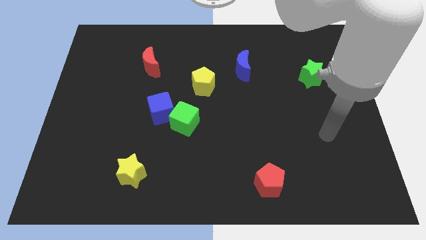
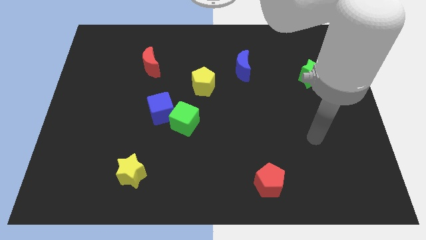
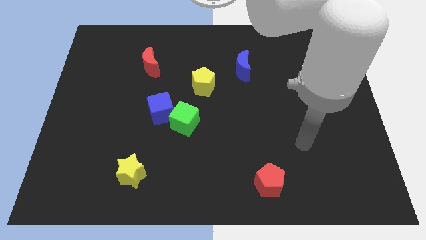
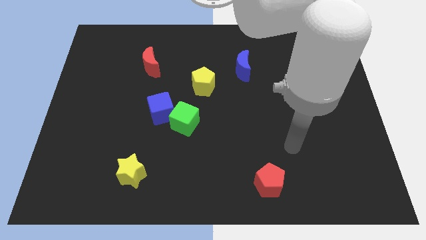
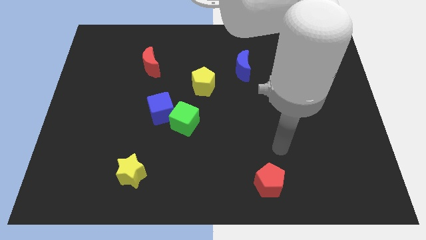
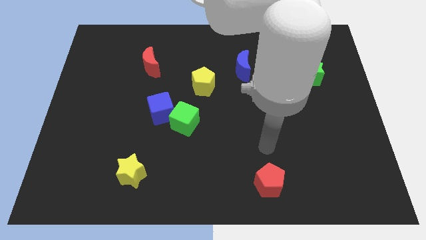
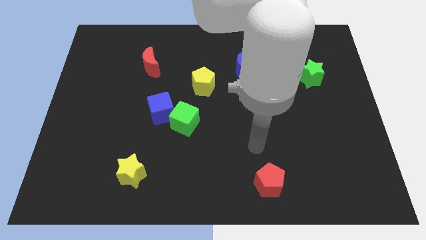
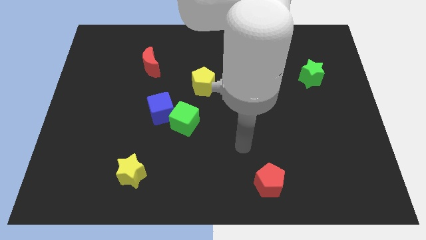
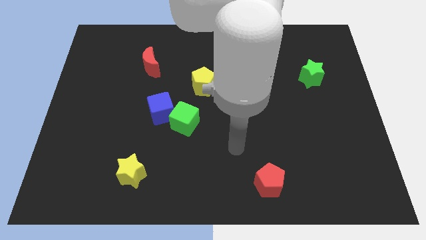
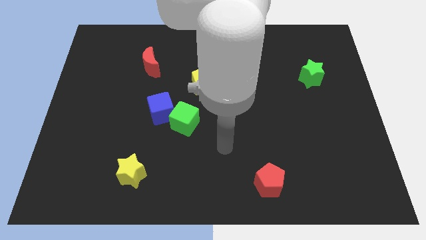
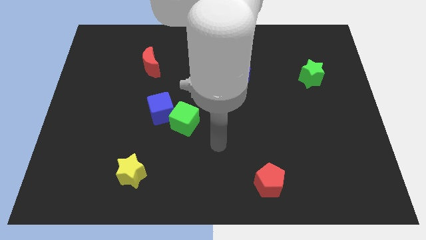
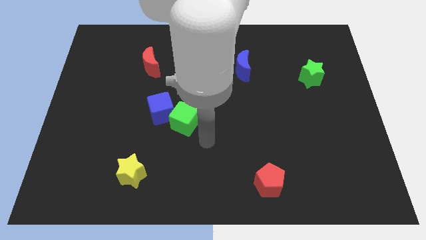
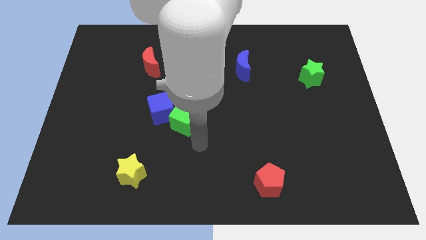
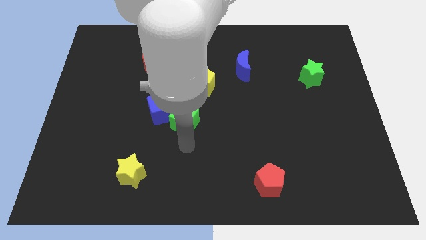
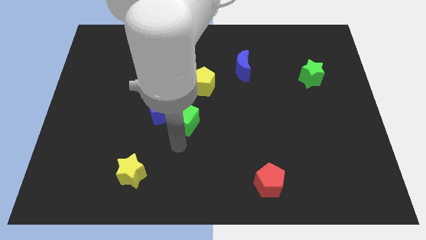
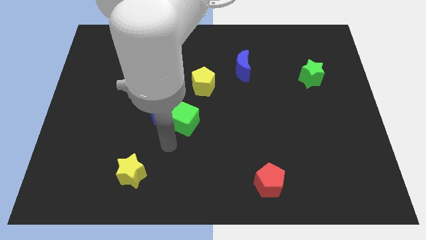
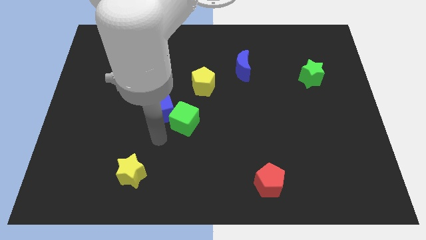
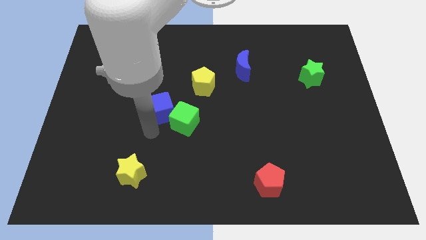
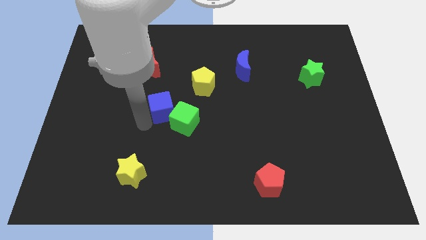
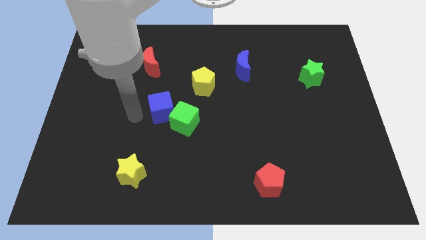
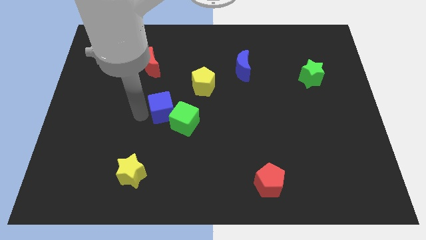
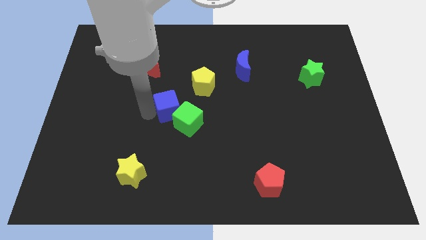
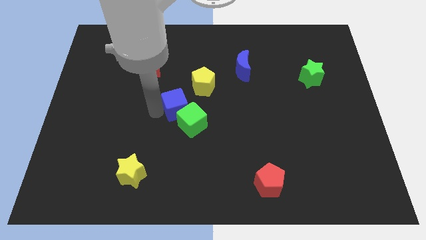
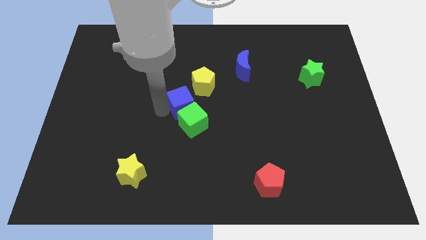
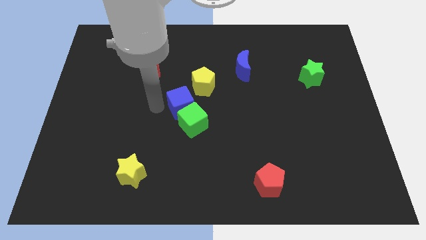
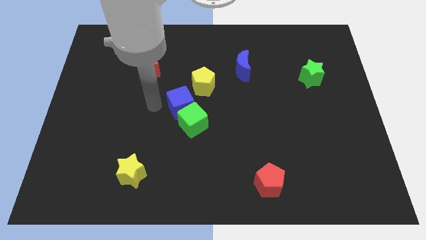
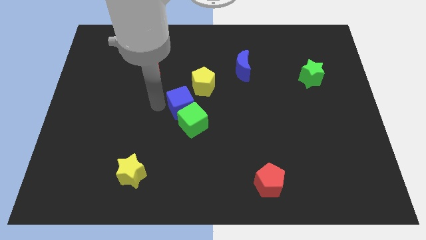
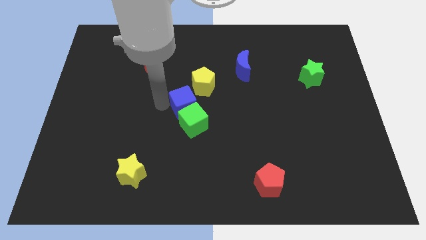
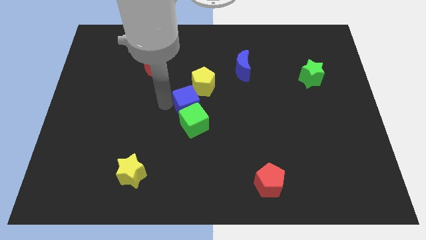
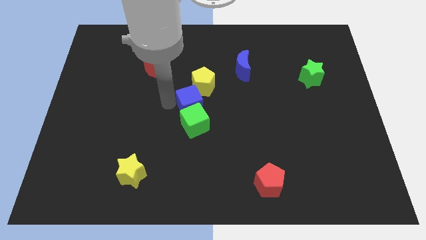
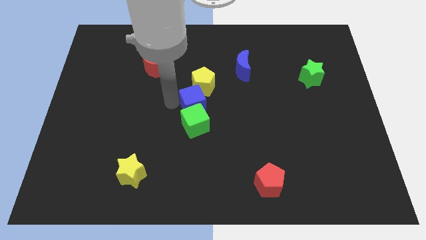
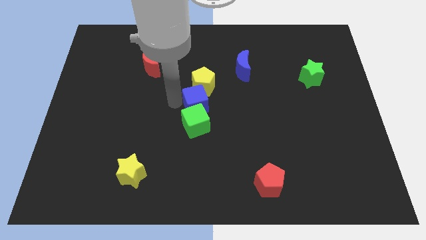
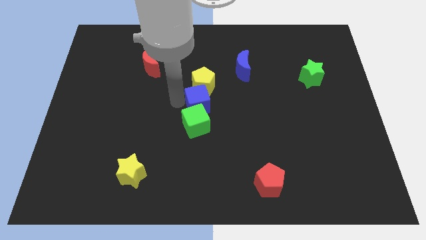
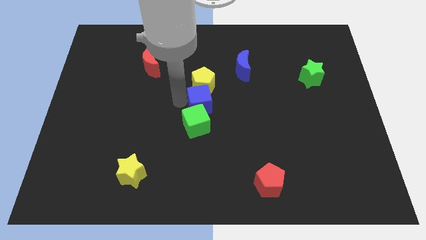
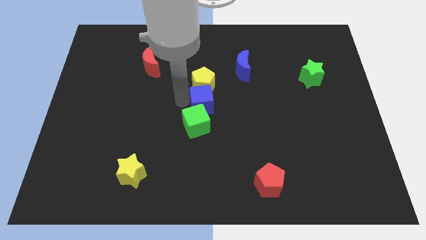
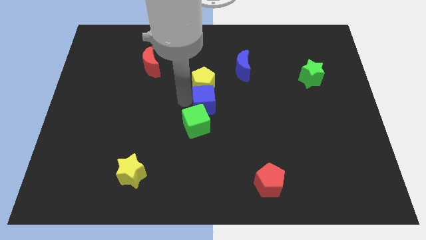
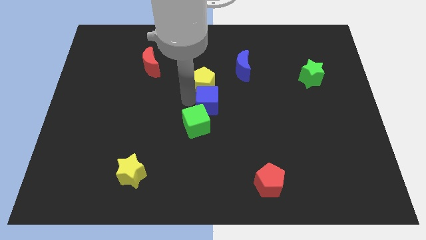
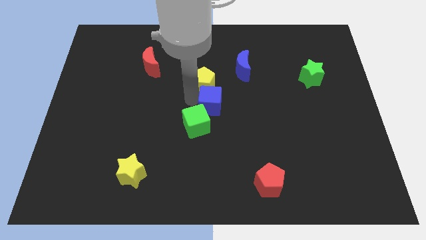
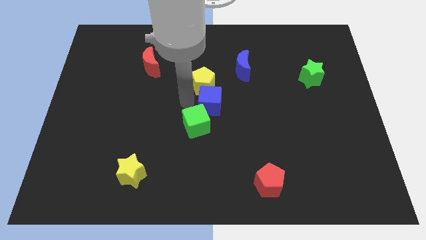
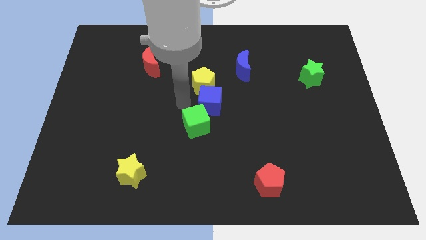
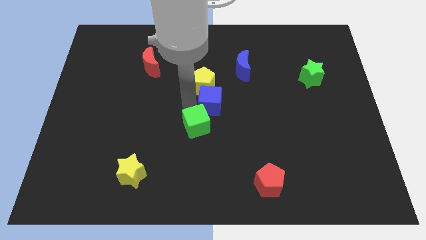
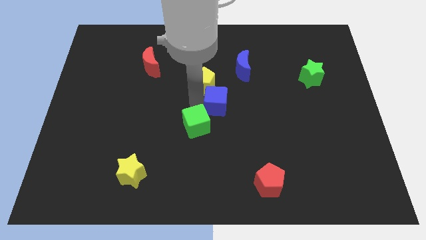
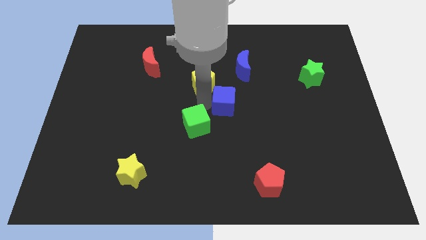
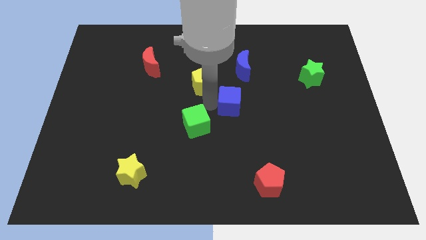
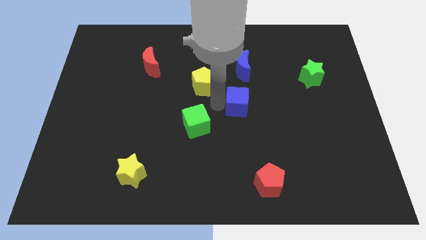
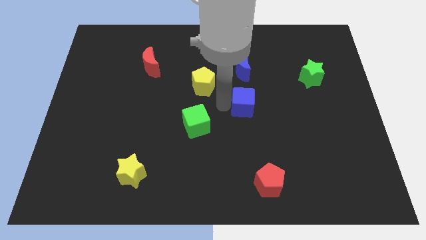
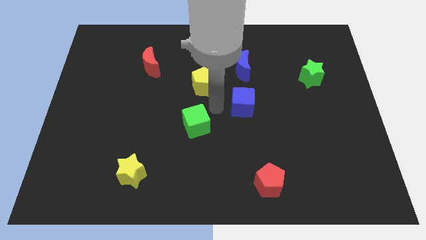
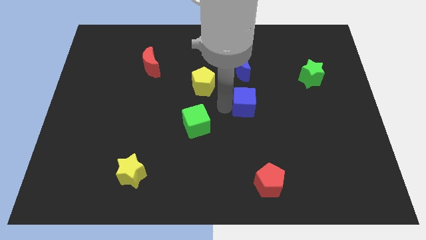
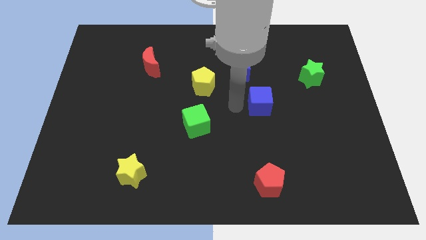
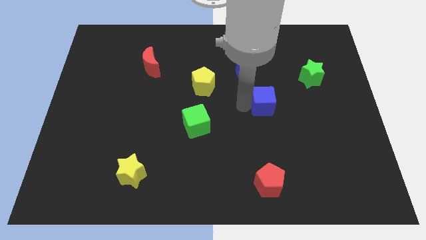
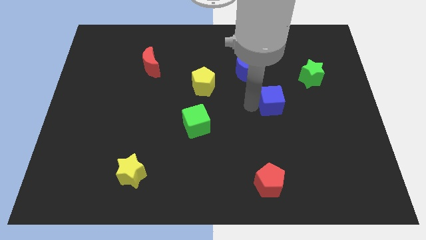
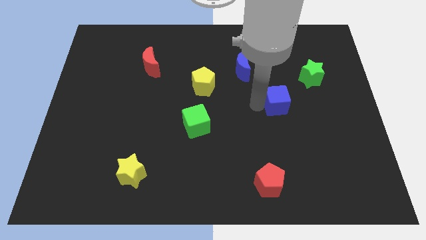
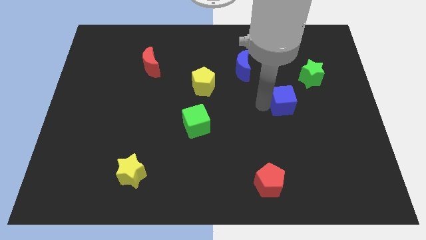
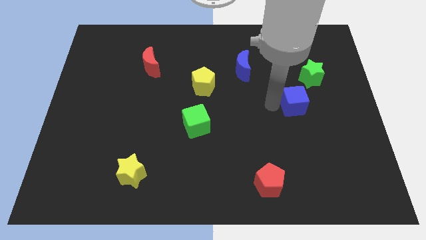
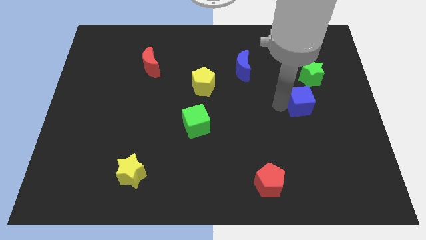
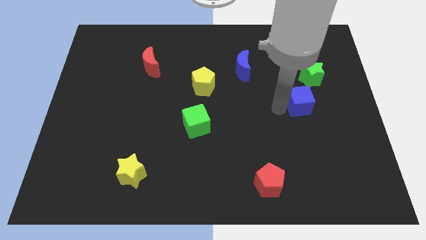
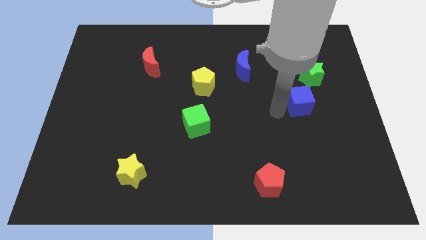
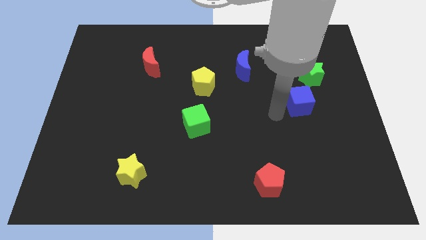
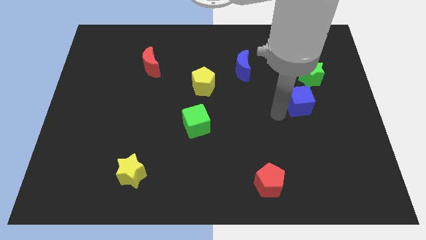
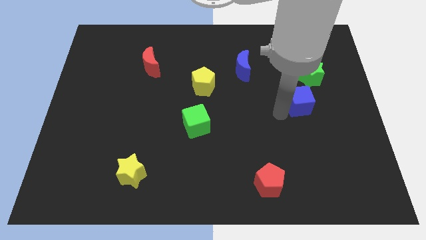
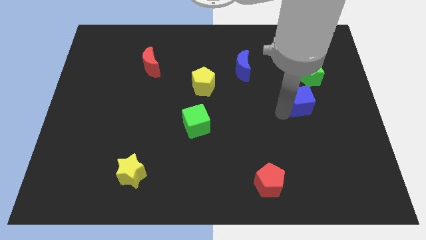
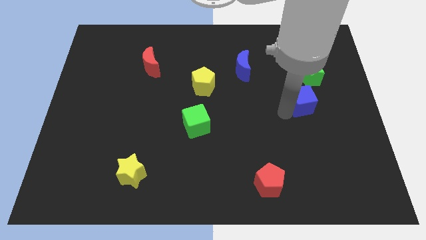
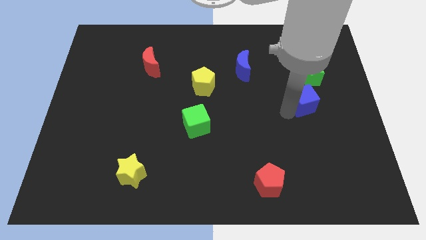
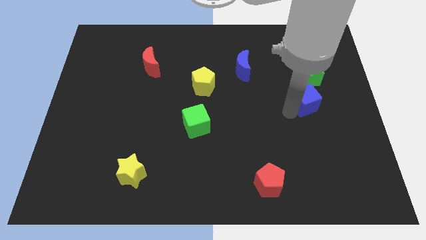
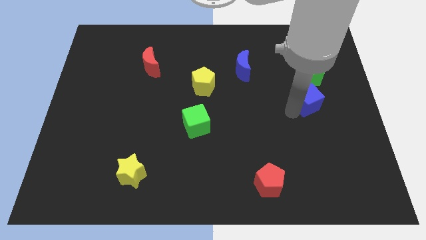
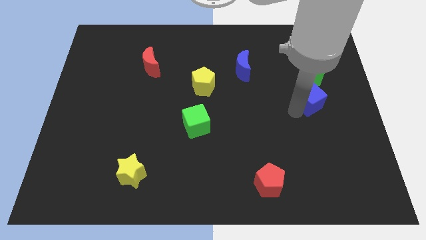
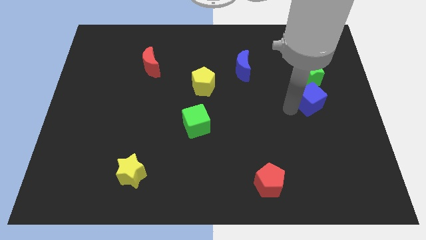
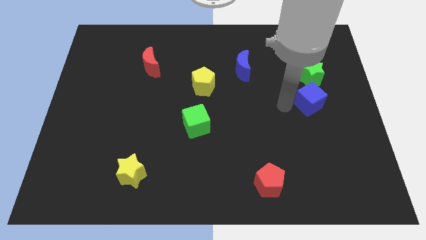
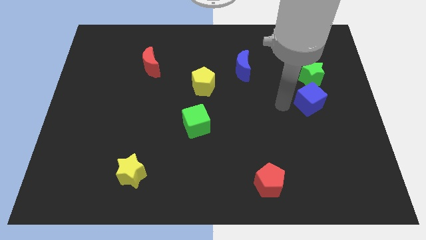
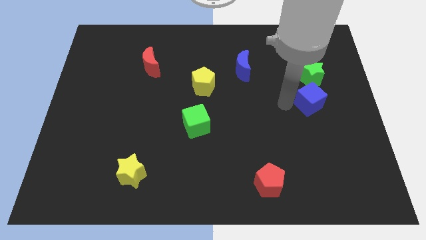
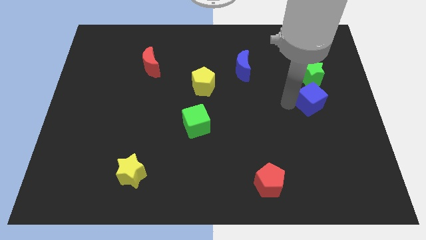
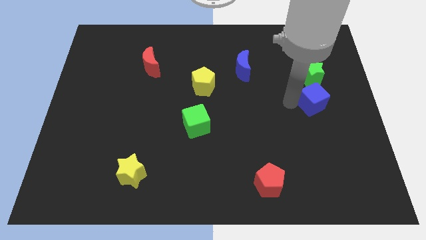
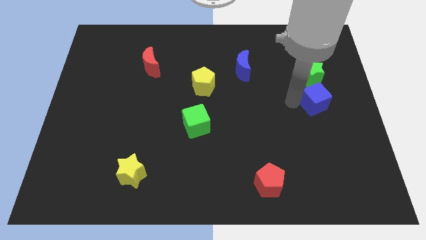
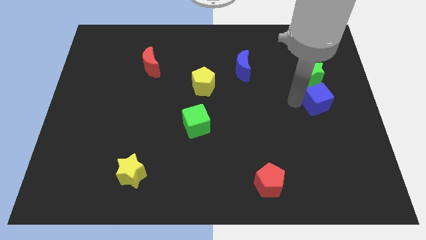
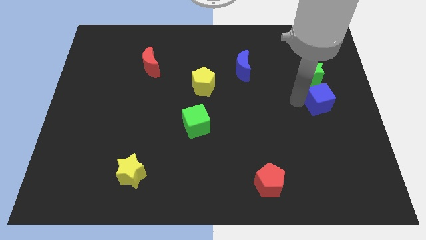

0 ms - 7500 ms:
push the blue cube to the right side
